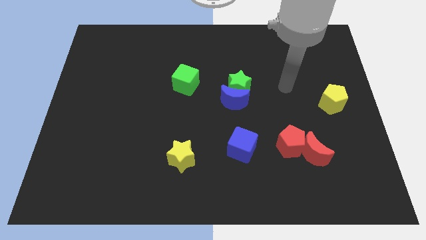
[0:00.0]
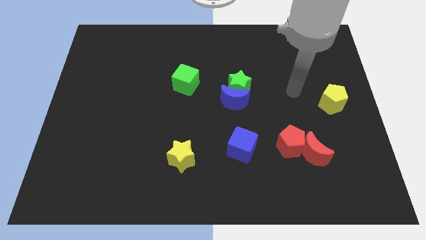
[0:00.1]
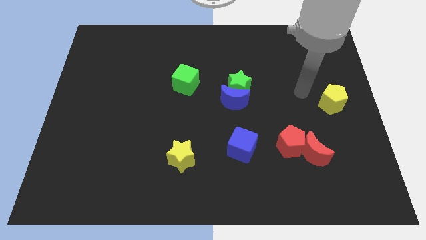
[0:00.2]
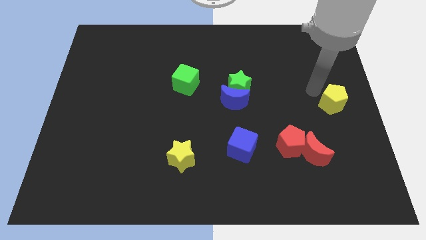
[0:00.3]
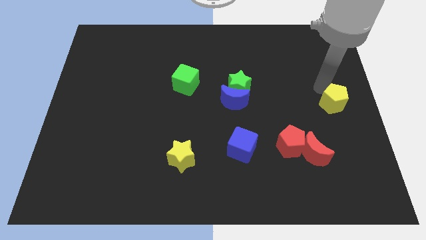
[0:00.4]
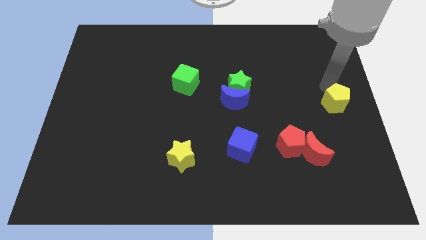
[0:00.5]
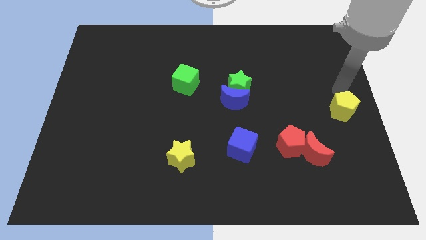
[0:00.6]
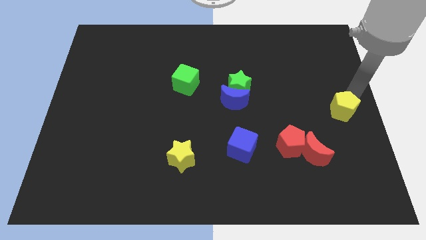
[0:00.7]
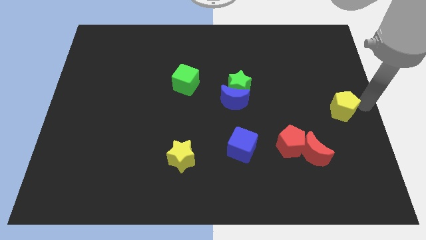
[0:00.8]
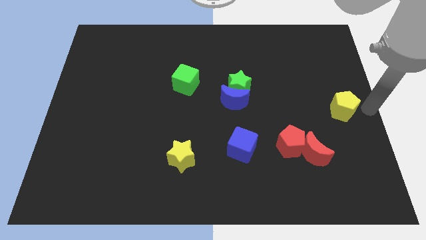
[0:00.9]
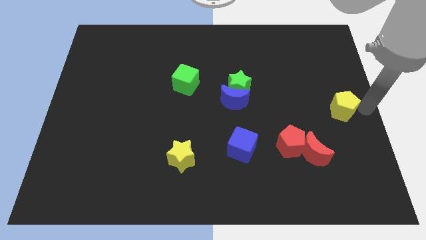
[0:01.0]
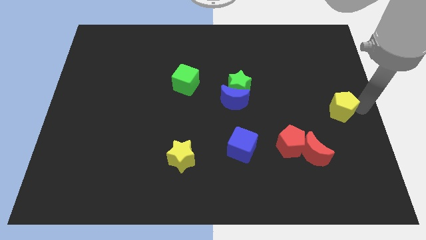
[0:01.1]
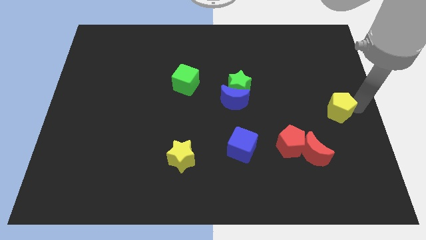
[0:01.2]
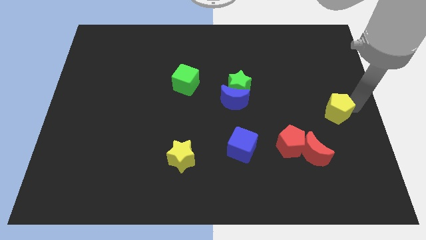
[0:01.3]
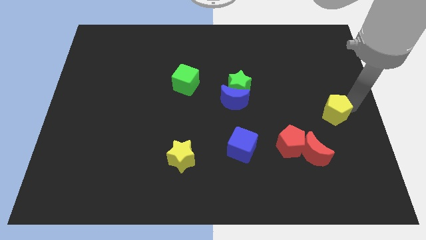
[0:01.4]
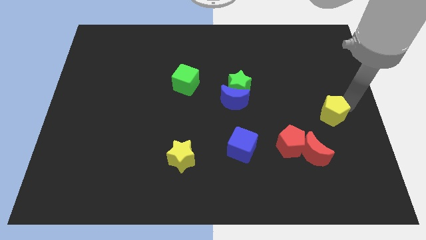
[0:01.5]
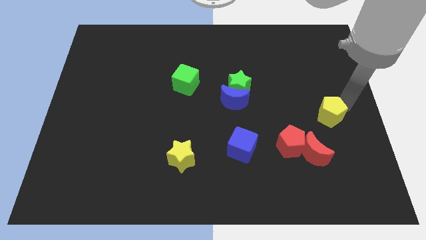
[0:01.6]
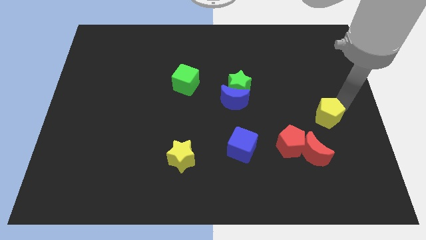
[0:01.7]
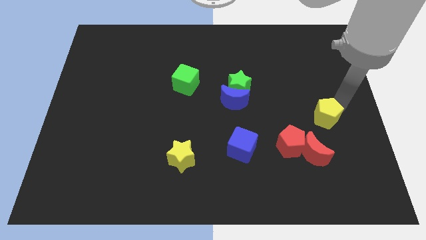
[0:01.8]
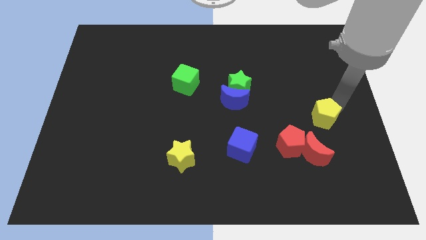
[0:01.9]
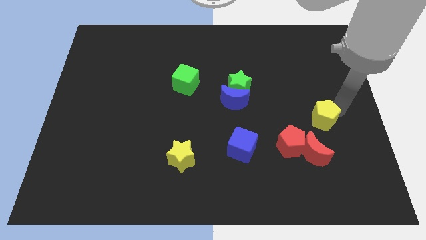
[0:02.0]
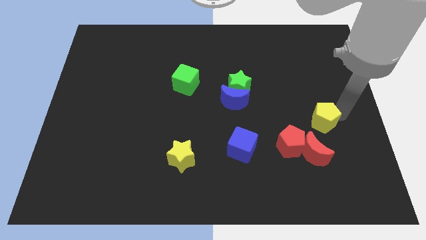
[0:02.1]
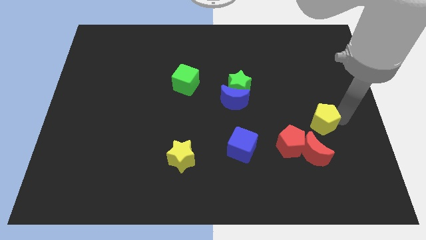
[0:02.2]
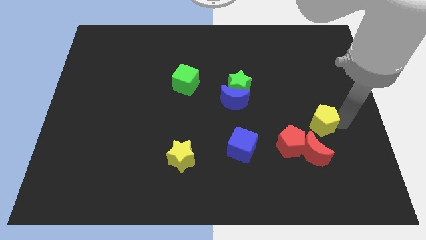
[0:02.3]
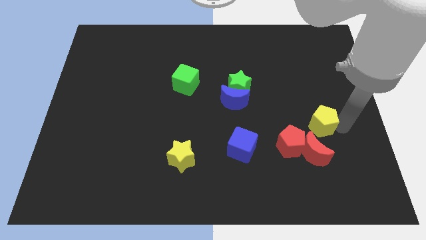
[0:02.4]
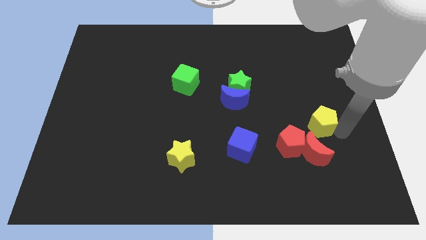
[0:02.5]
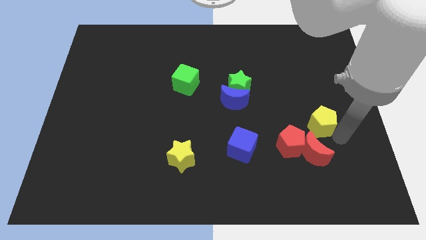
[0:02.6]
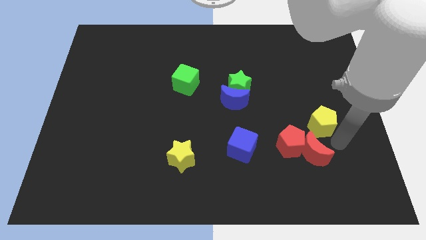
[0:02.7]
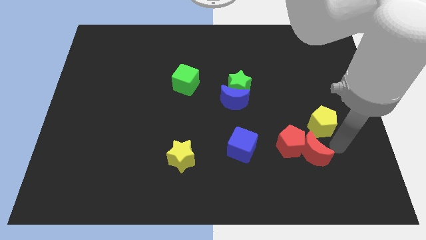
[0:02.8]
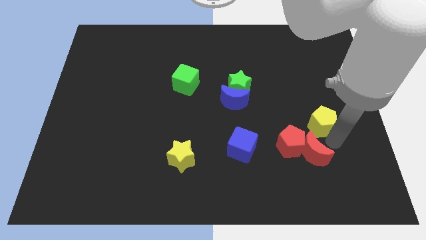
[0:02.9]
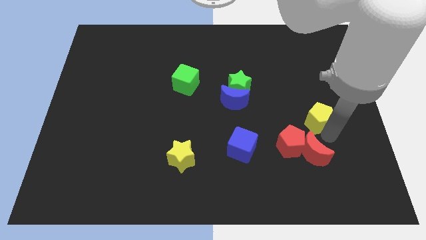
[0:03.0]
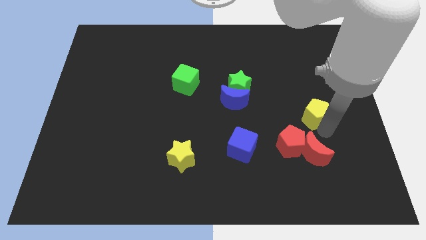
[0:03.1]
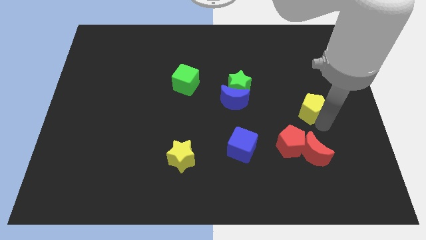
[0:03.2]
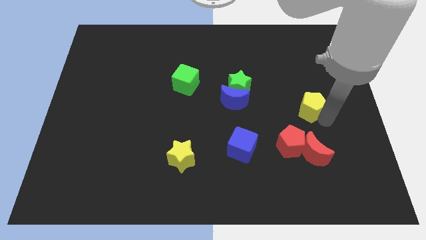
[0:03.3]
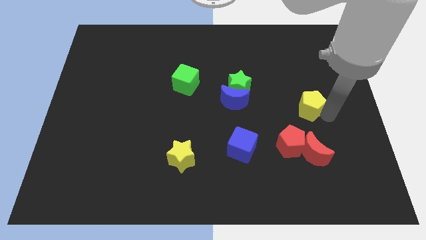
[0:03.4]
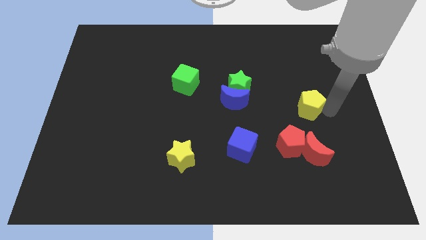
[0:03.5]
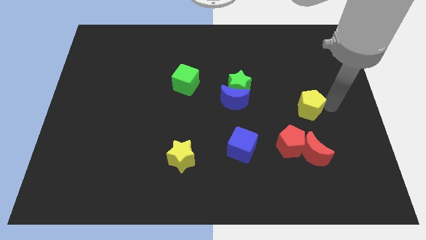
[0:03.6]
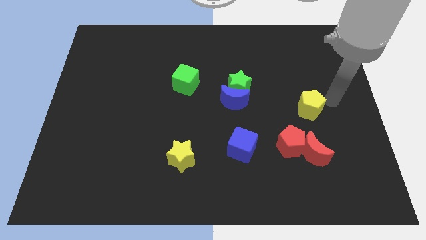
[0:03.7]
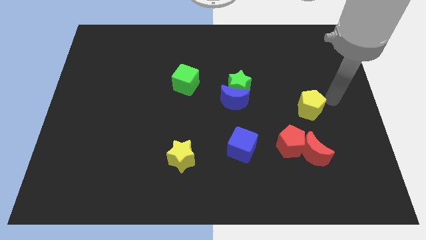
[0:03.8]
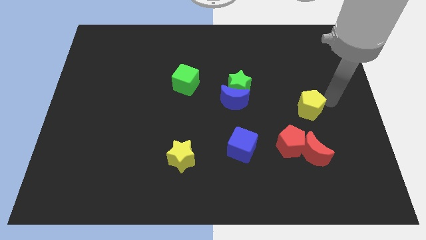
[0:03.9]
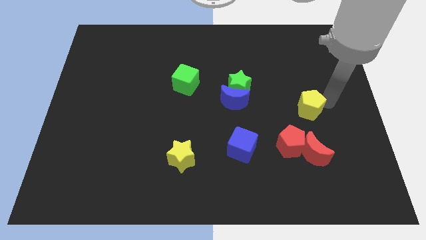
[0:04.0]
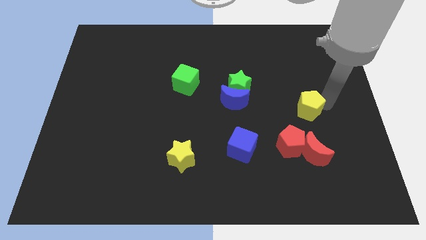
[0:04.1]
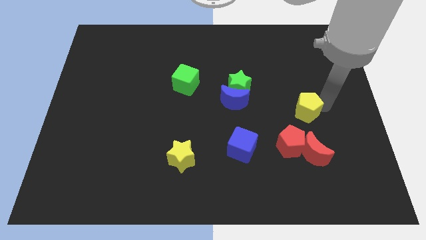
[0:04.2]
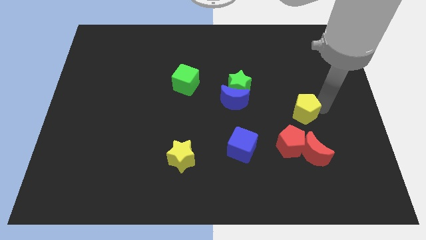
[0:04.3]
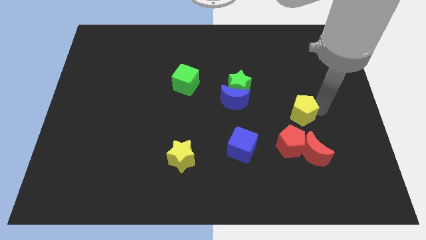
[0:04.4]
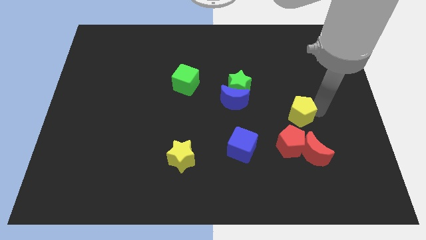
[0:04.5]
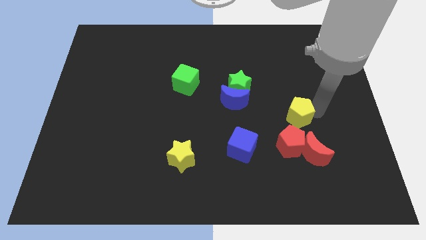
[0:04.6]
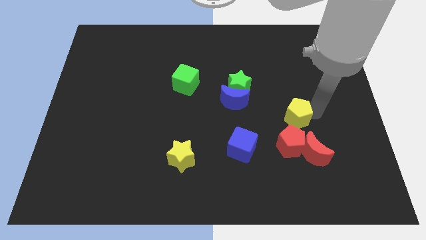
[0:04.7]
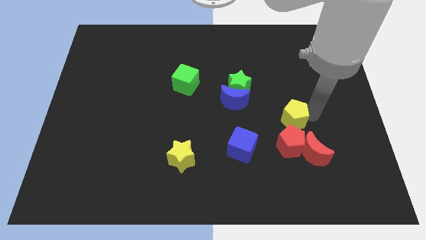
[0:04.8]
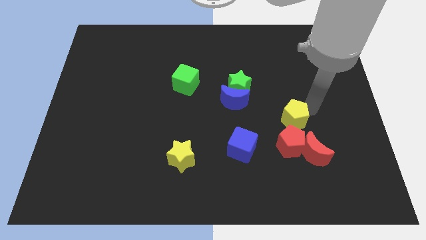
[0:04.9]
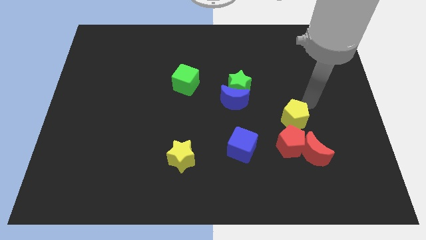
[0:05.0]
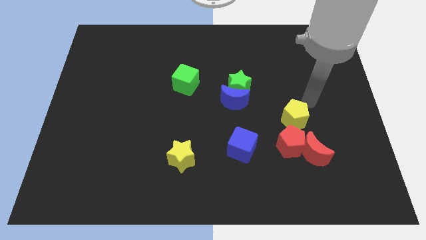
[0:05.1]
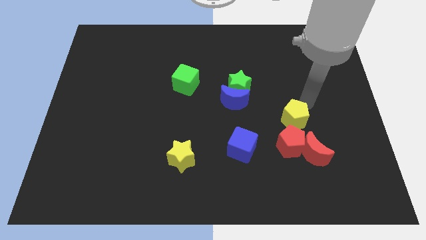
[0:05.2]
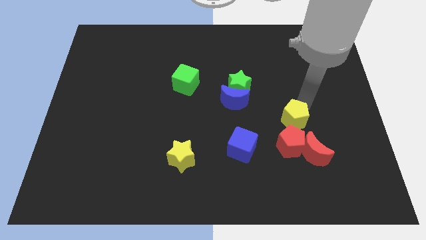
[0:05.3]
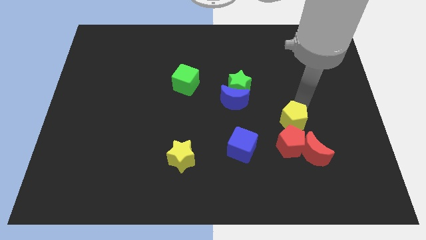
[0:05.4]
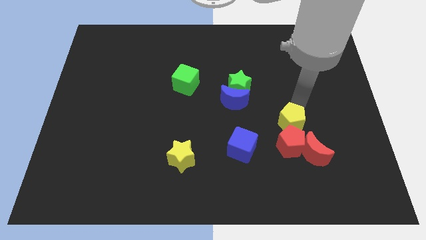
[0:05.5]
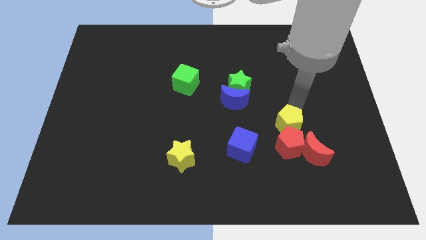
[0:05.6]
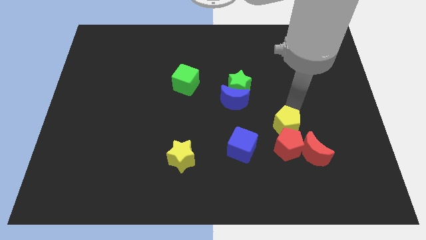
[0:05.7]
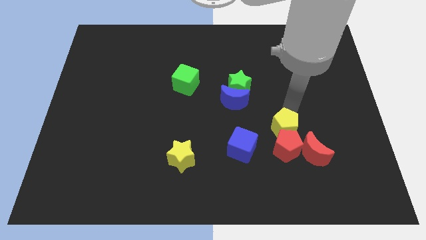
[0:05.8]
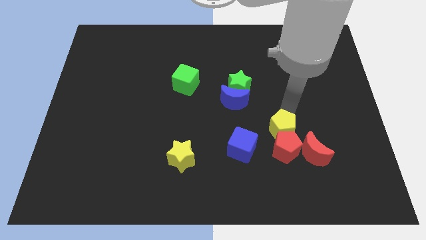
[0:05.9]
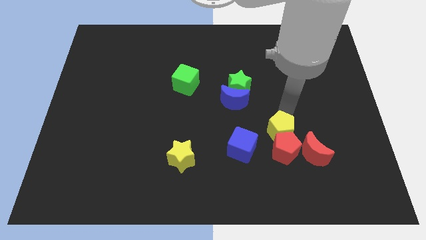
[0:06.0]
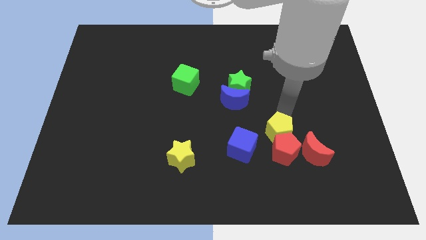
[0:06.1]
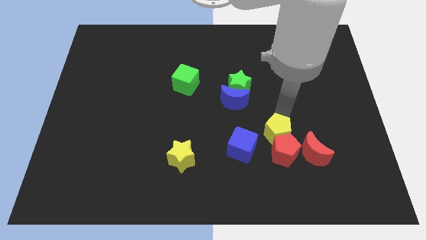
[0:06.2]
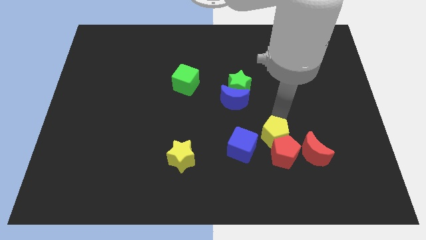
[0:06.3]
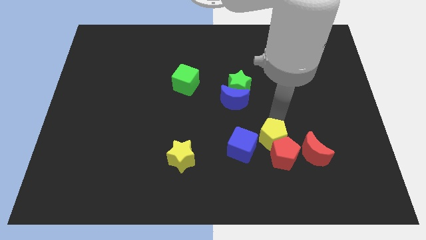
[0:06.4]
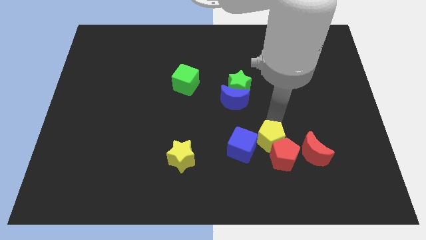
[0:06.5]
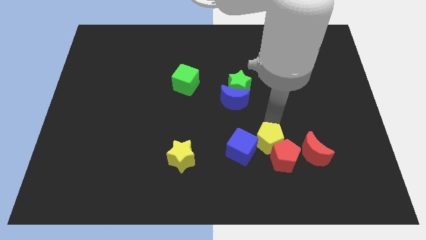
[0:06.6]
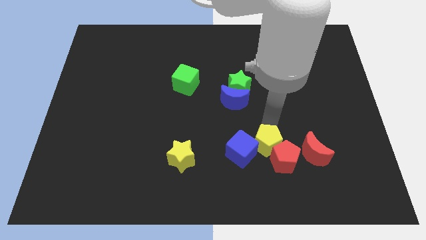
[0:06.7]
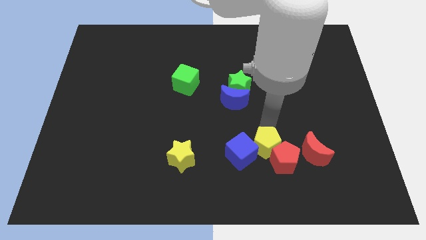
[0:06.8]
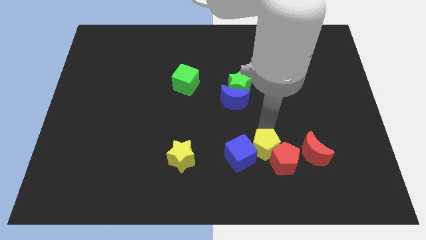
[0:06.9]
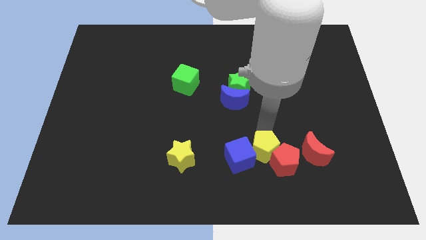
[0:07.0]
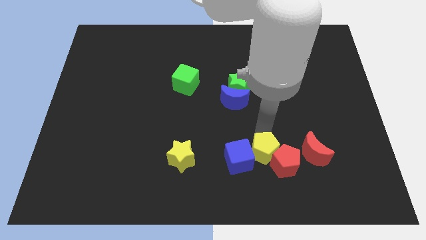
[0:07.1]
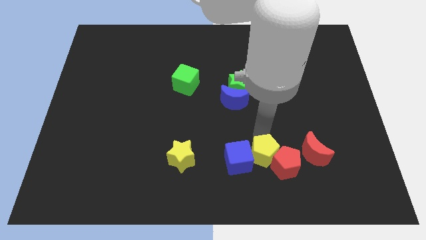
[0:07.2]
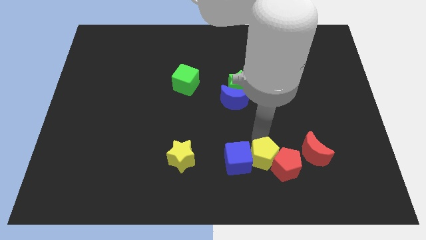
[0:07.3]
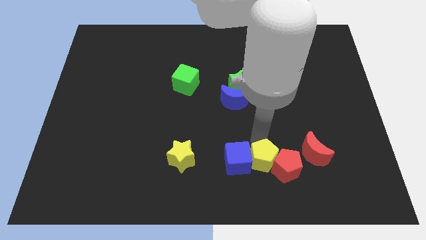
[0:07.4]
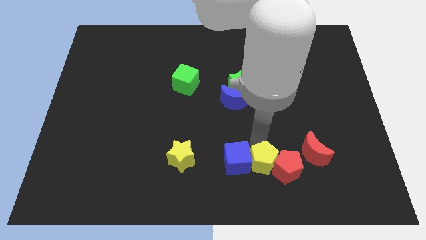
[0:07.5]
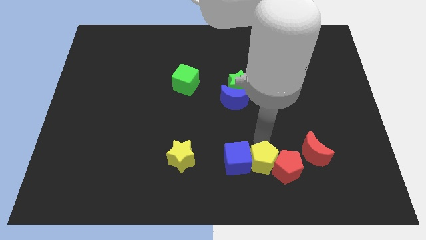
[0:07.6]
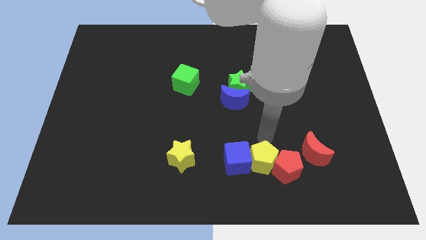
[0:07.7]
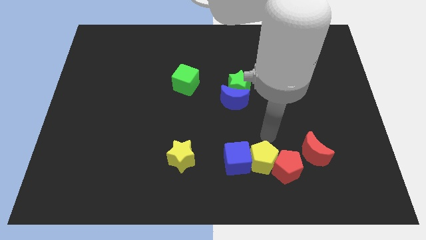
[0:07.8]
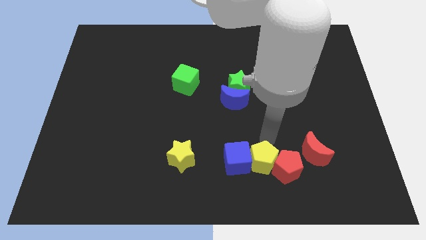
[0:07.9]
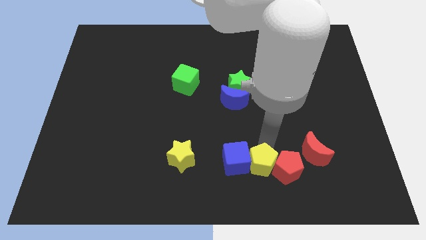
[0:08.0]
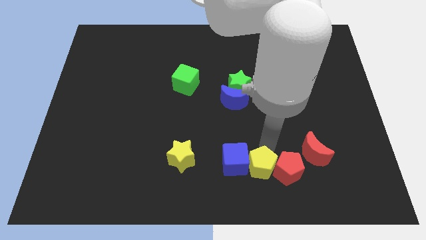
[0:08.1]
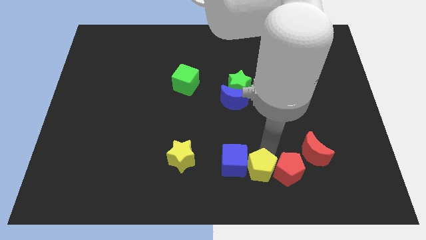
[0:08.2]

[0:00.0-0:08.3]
put the yellow pentagon to the bottom side
